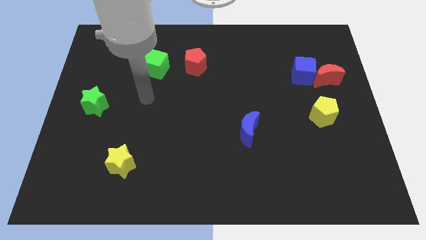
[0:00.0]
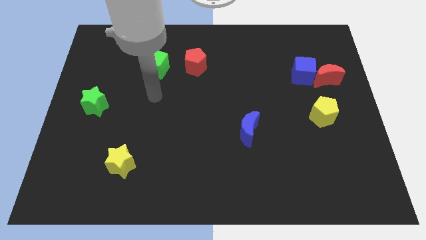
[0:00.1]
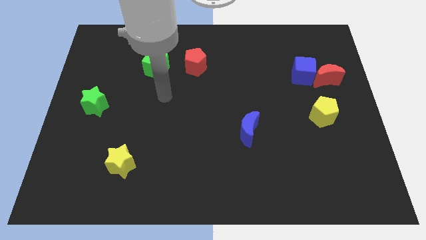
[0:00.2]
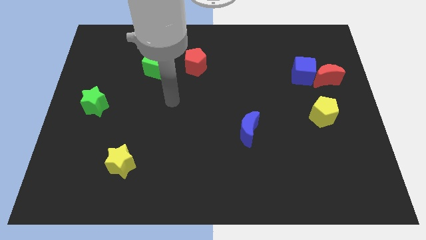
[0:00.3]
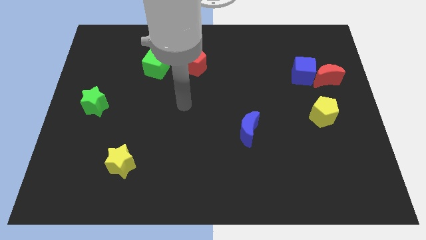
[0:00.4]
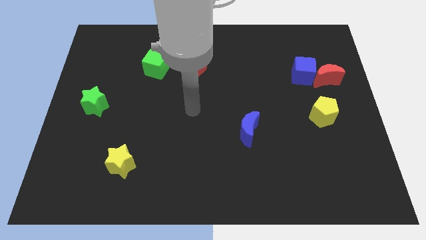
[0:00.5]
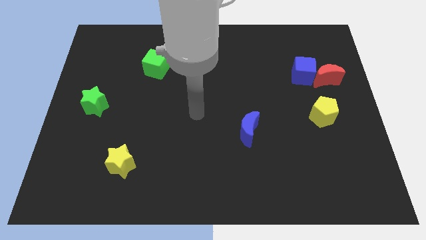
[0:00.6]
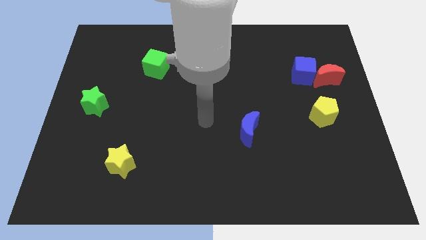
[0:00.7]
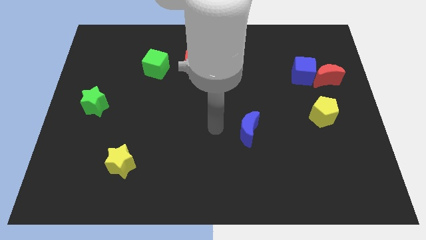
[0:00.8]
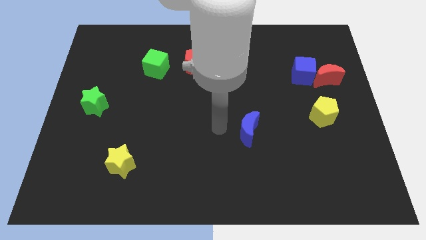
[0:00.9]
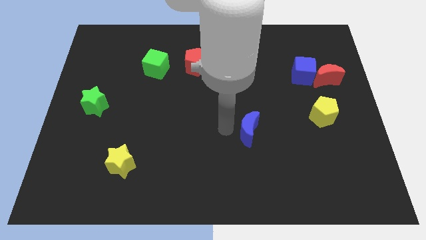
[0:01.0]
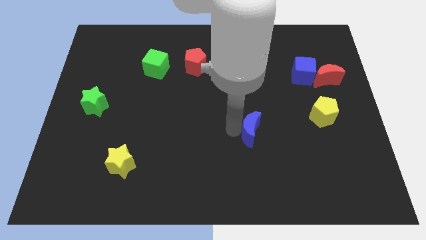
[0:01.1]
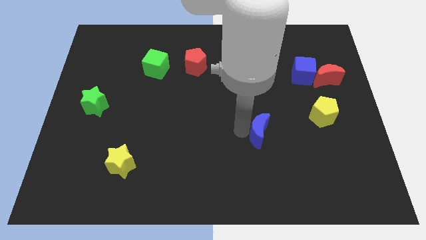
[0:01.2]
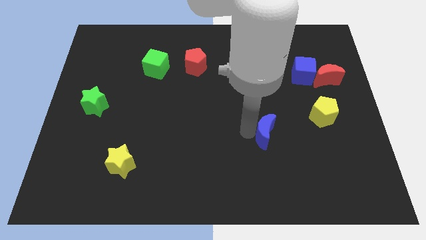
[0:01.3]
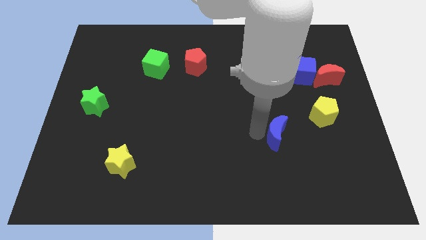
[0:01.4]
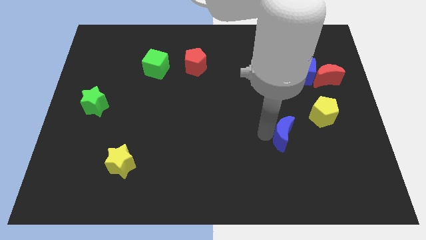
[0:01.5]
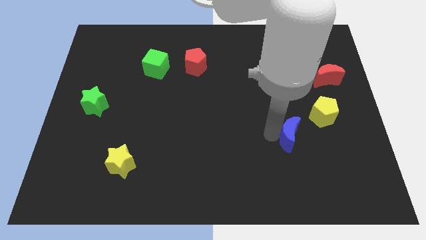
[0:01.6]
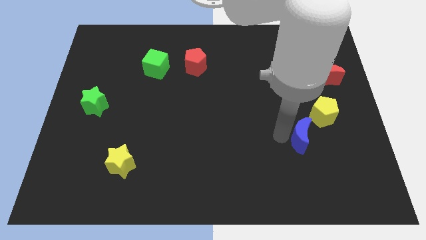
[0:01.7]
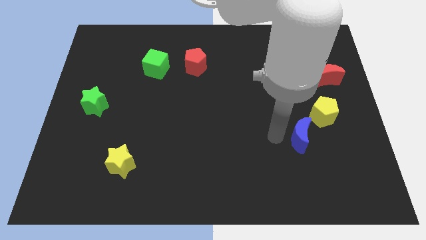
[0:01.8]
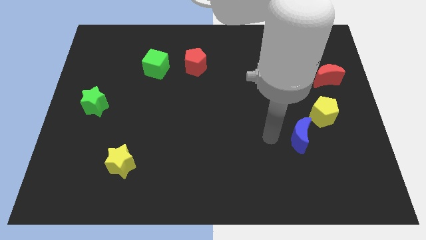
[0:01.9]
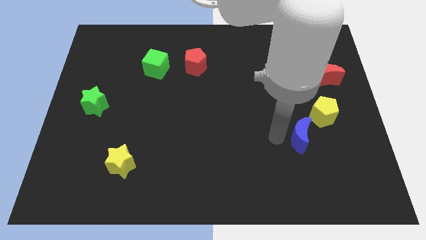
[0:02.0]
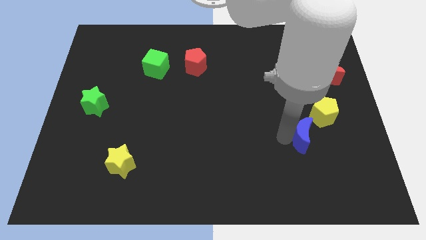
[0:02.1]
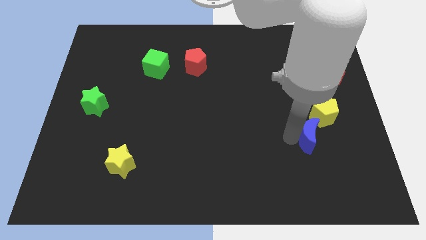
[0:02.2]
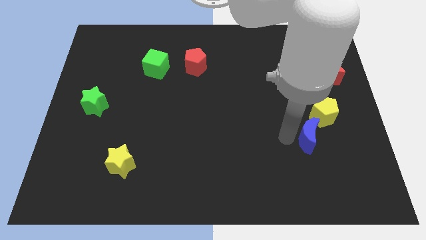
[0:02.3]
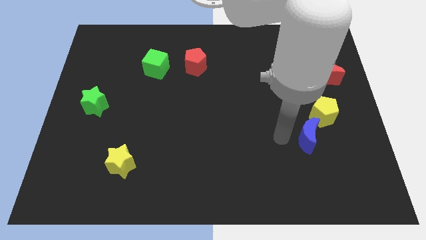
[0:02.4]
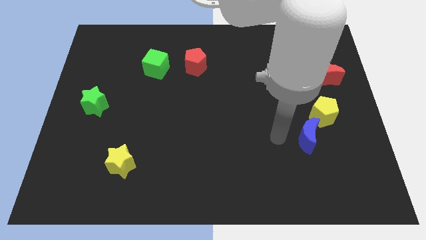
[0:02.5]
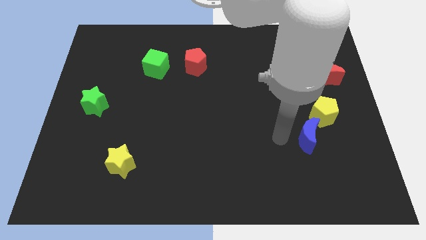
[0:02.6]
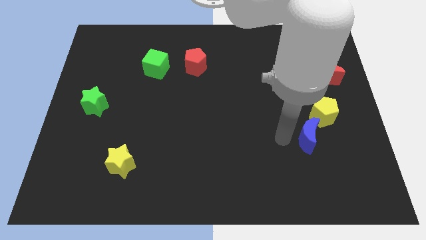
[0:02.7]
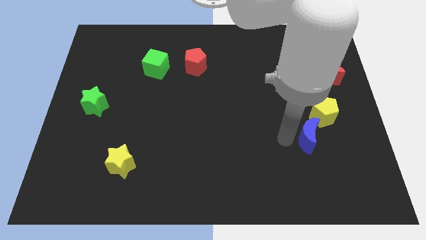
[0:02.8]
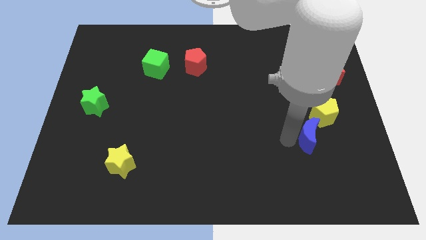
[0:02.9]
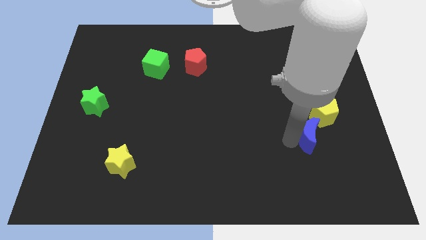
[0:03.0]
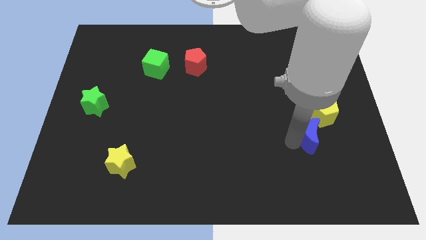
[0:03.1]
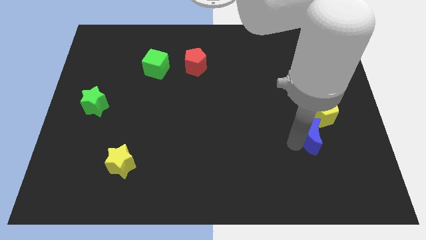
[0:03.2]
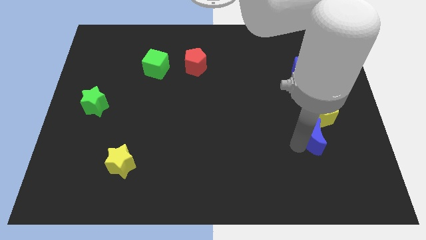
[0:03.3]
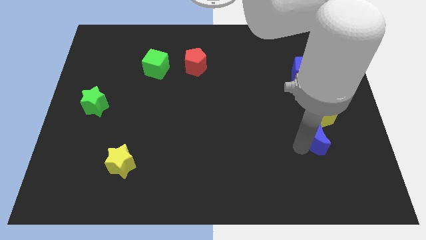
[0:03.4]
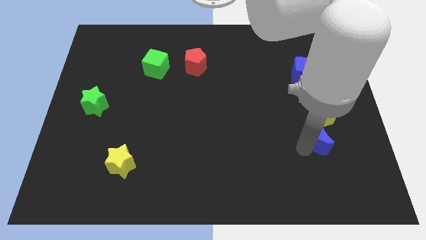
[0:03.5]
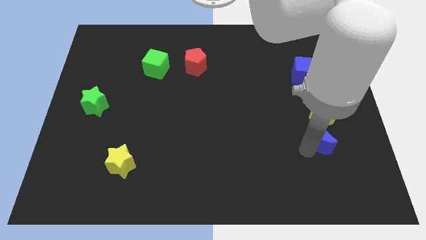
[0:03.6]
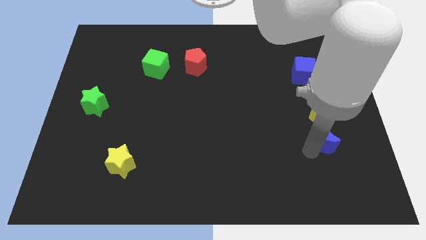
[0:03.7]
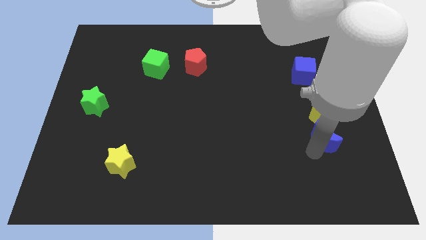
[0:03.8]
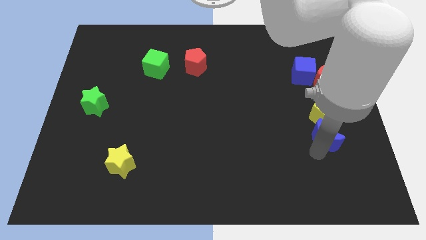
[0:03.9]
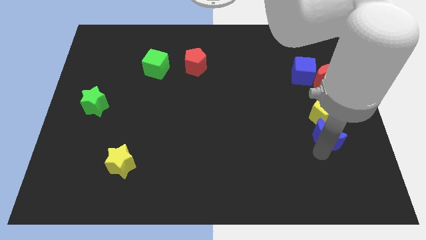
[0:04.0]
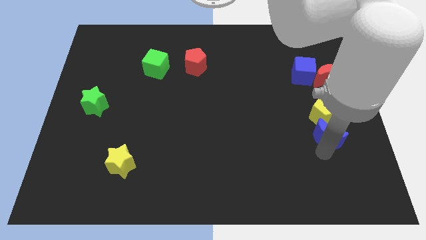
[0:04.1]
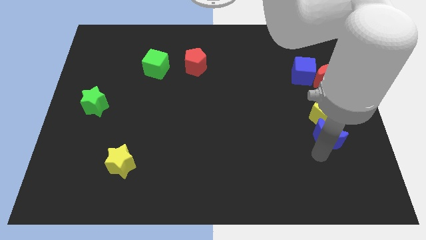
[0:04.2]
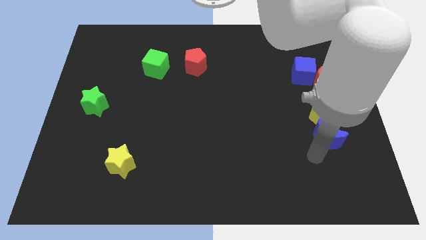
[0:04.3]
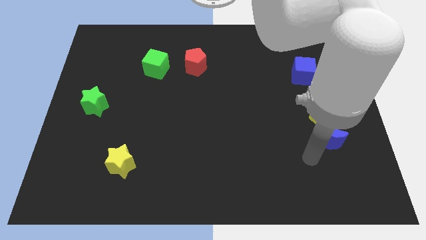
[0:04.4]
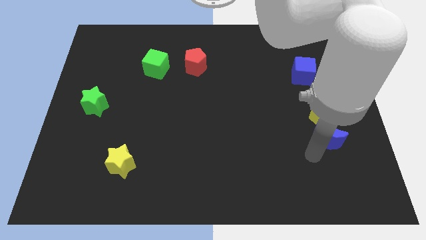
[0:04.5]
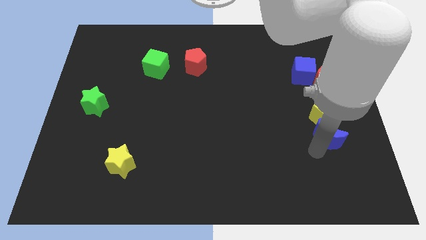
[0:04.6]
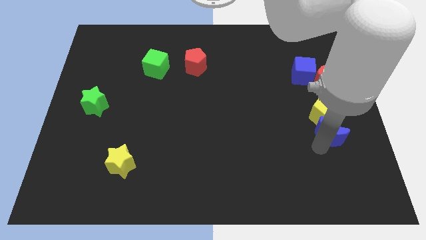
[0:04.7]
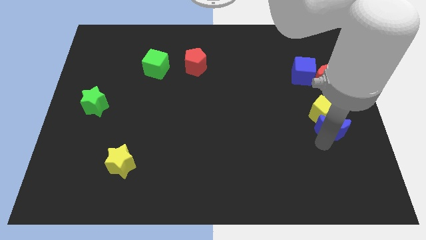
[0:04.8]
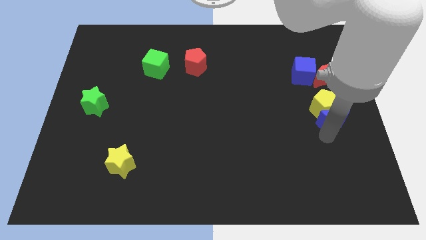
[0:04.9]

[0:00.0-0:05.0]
push the blue moon to the right side

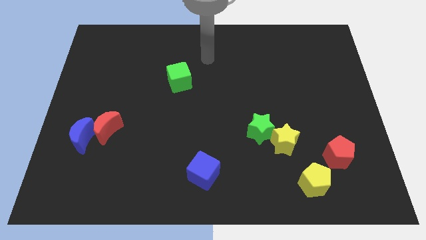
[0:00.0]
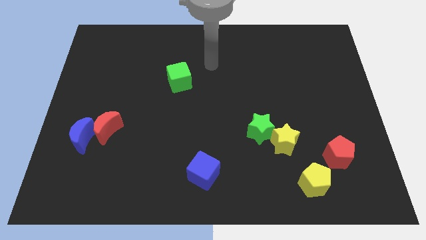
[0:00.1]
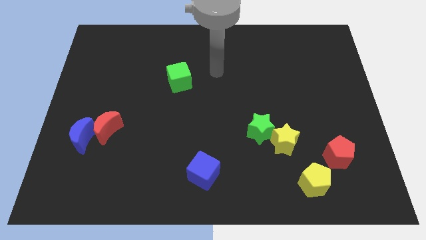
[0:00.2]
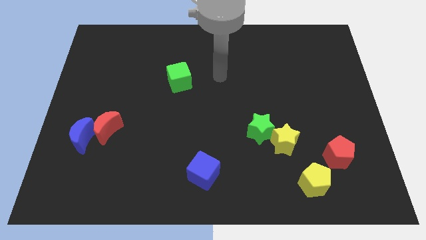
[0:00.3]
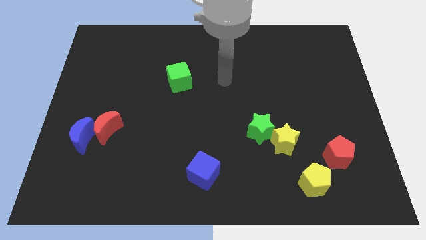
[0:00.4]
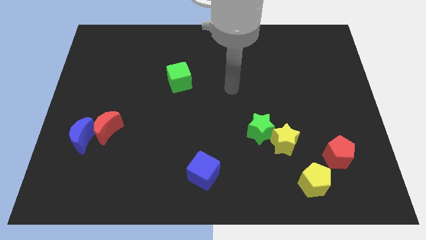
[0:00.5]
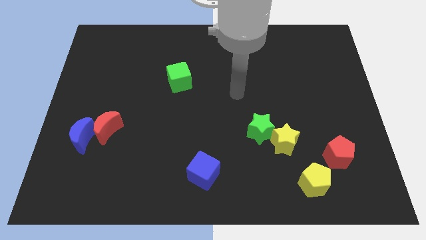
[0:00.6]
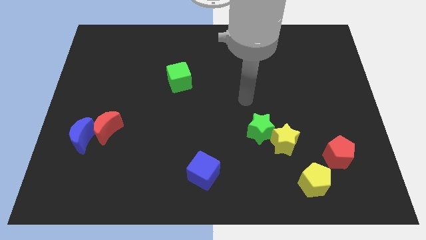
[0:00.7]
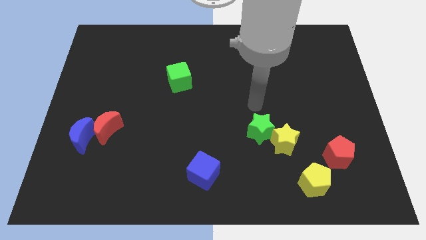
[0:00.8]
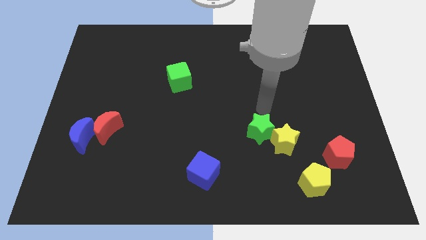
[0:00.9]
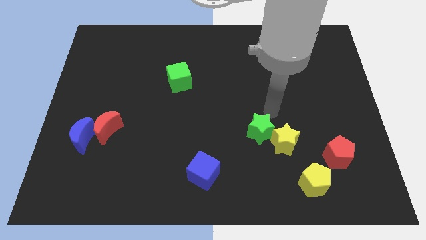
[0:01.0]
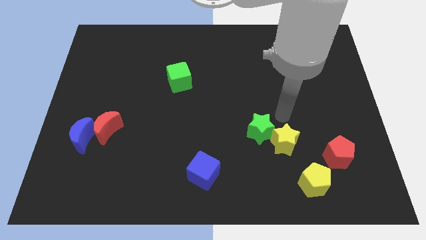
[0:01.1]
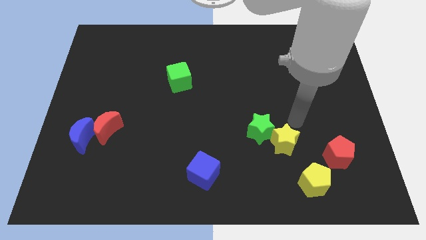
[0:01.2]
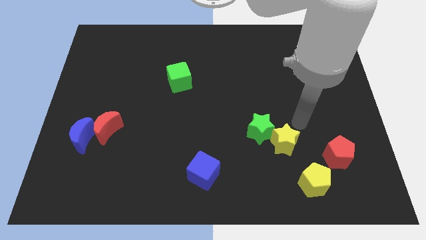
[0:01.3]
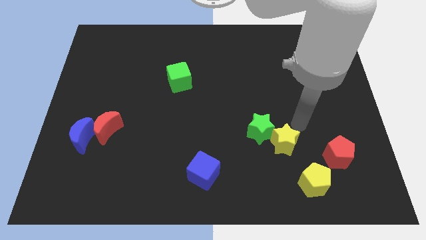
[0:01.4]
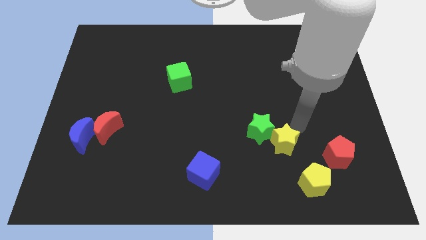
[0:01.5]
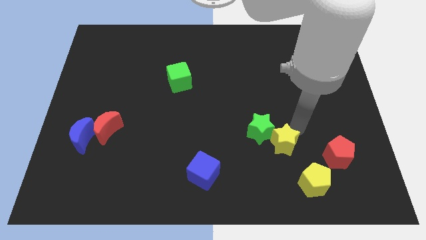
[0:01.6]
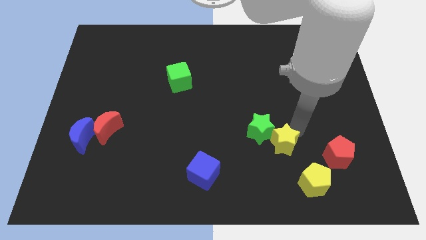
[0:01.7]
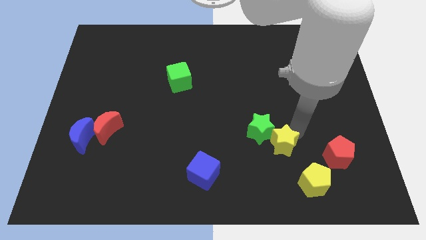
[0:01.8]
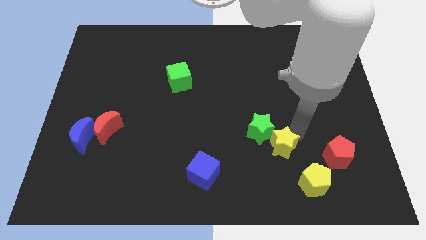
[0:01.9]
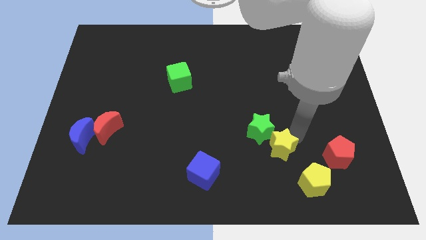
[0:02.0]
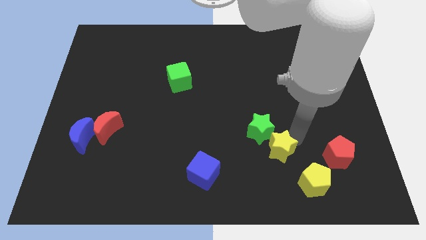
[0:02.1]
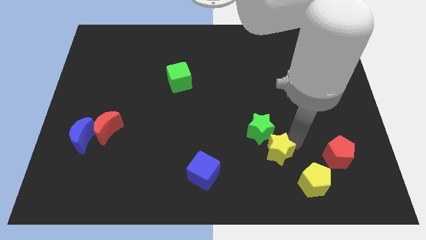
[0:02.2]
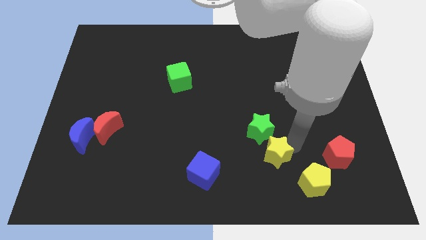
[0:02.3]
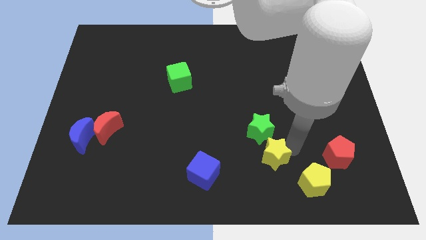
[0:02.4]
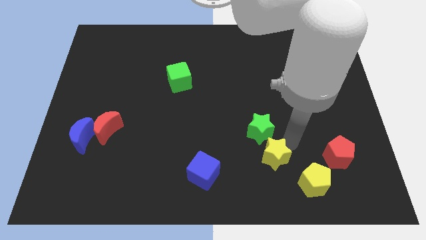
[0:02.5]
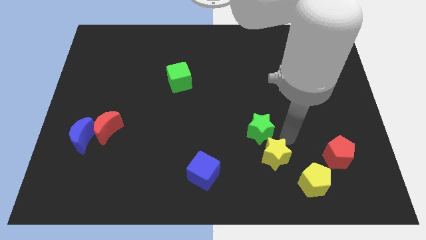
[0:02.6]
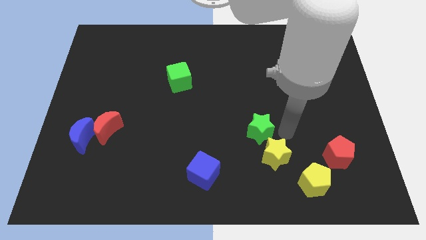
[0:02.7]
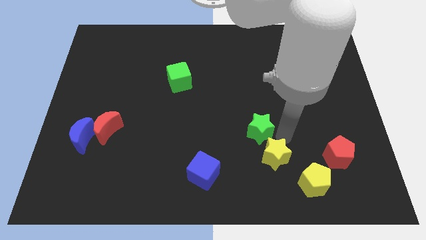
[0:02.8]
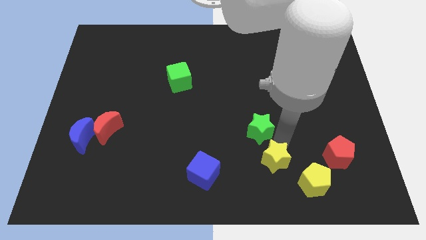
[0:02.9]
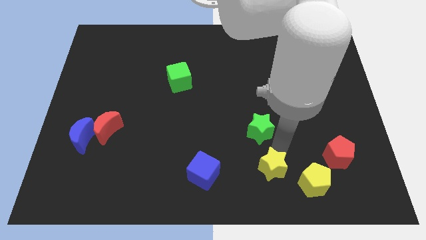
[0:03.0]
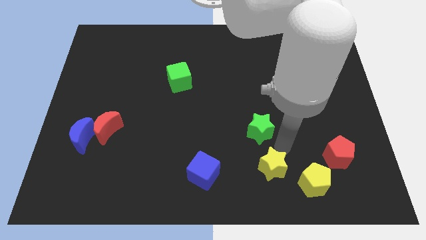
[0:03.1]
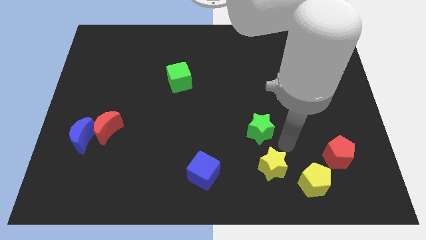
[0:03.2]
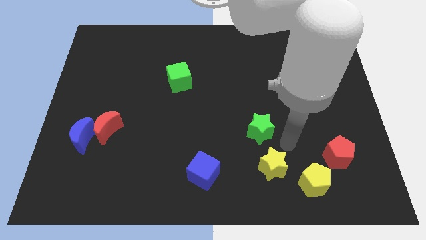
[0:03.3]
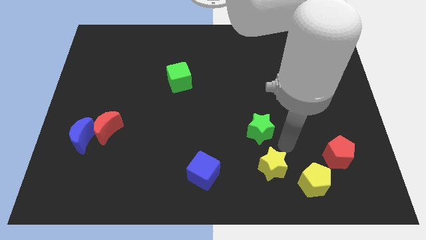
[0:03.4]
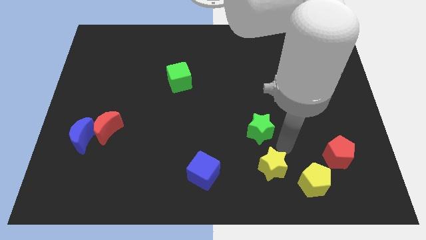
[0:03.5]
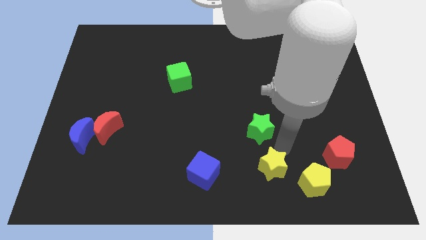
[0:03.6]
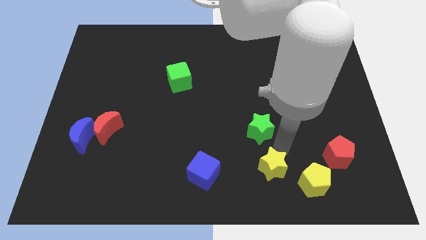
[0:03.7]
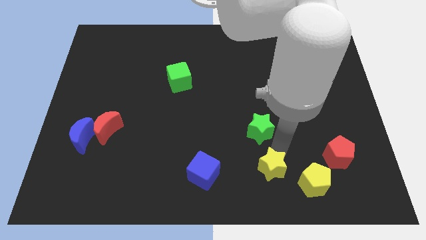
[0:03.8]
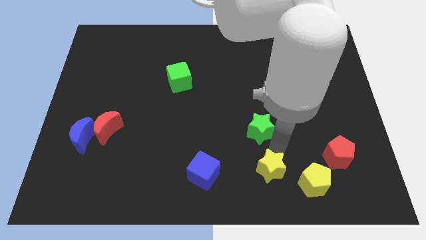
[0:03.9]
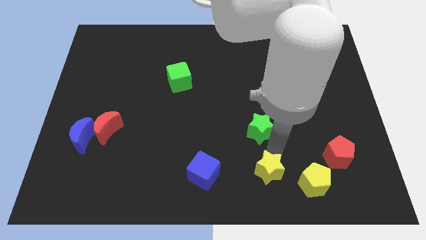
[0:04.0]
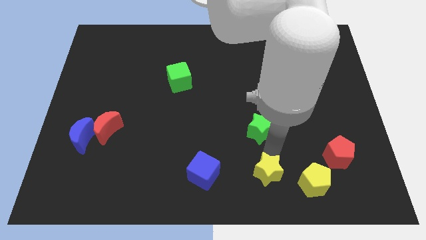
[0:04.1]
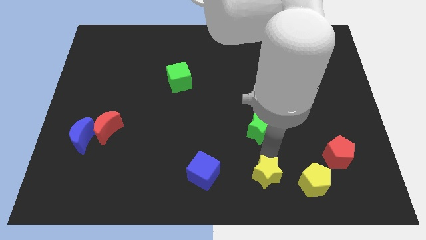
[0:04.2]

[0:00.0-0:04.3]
put the yellow star to the bottom side
